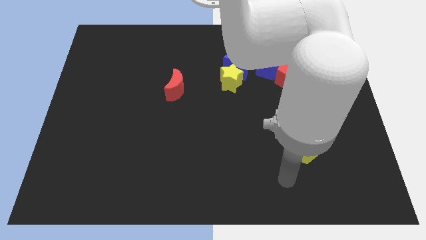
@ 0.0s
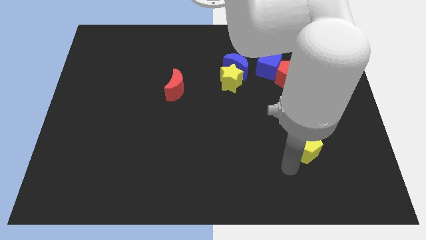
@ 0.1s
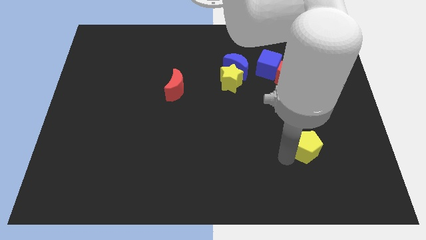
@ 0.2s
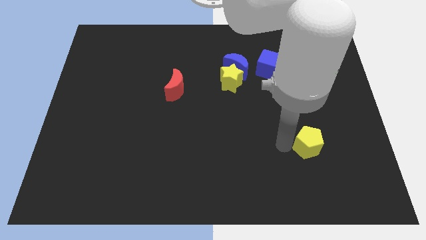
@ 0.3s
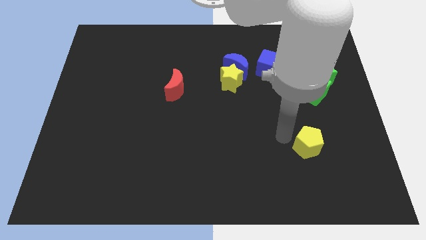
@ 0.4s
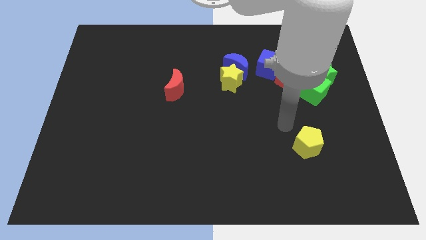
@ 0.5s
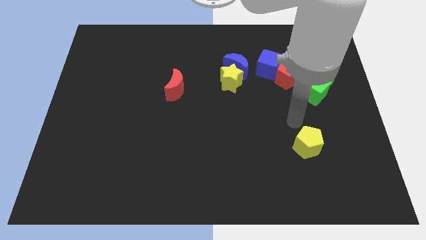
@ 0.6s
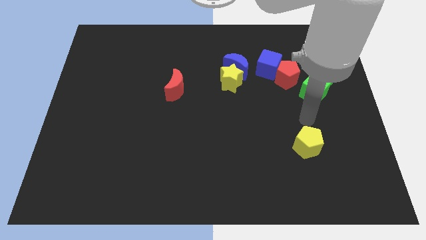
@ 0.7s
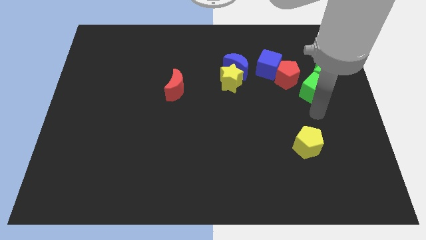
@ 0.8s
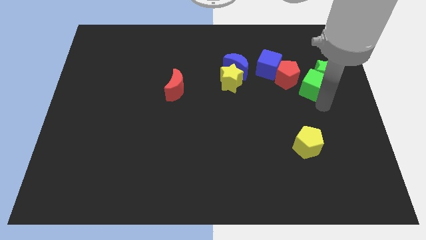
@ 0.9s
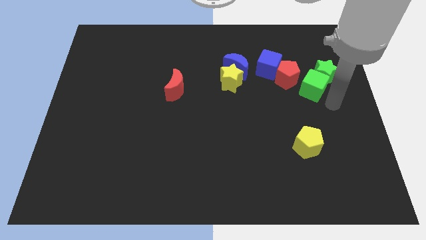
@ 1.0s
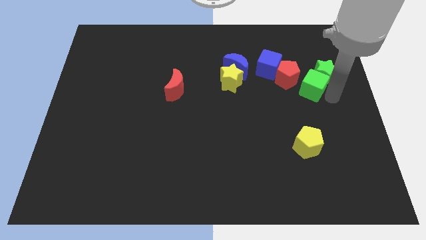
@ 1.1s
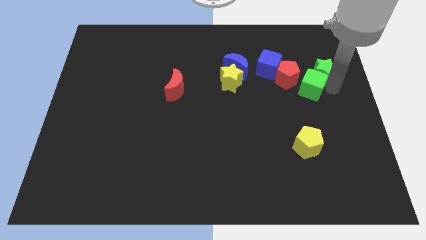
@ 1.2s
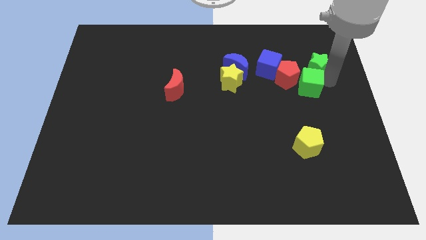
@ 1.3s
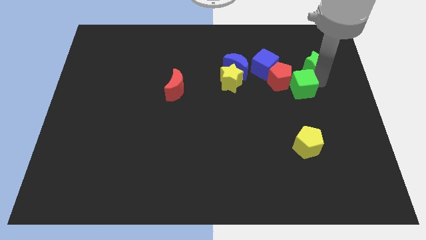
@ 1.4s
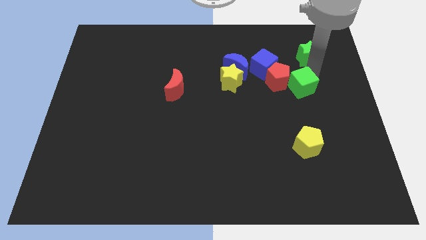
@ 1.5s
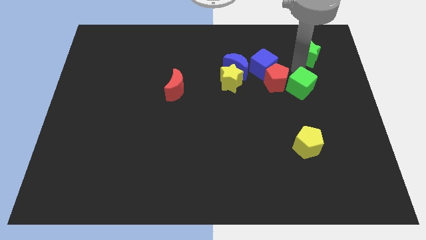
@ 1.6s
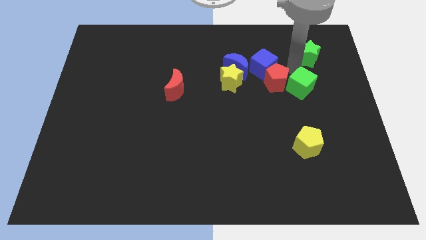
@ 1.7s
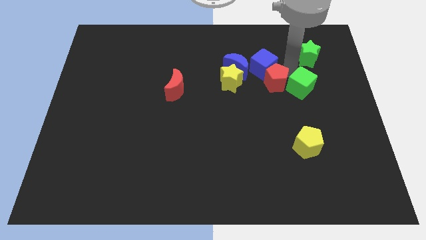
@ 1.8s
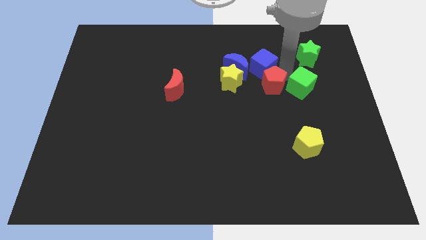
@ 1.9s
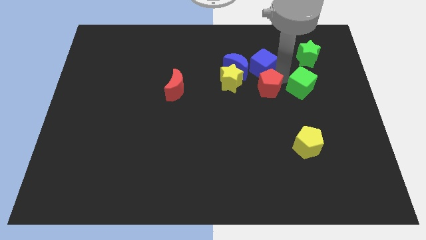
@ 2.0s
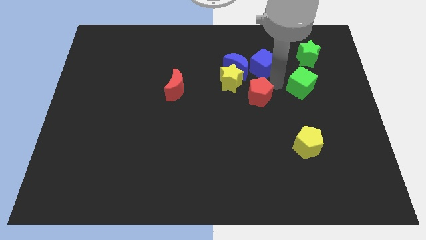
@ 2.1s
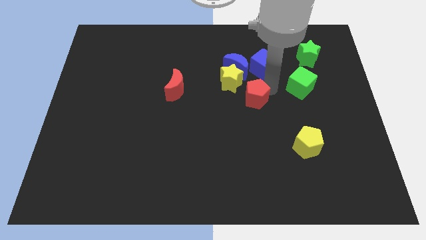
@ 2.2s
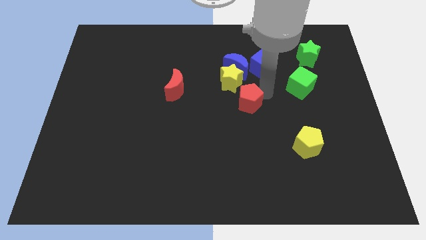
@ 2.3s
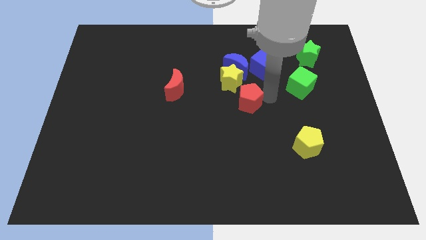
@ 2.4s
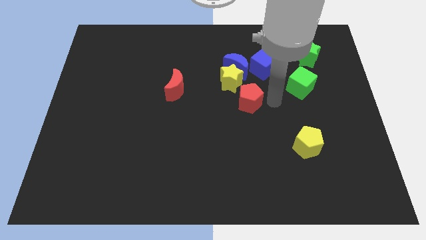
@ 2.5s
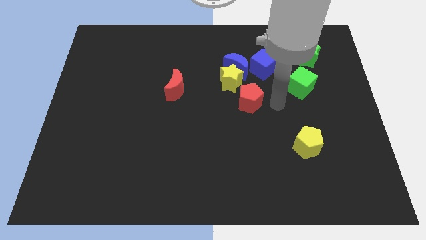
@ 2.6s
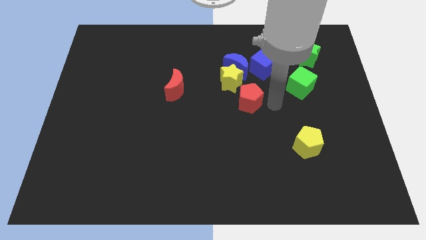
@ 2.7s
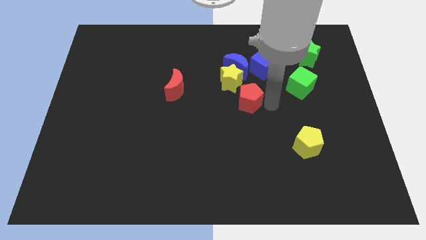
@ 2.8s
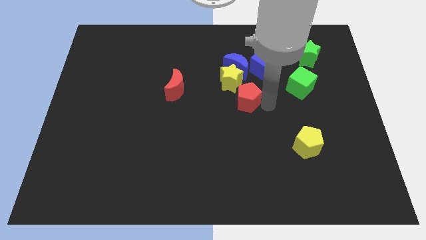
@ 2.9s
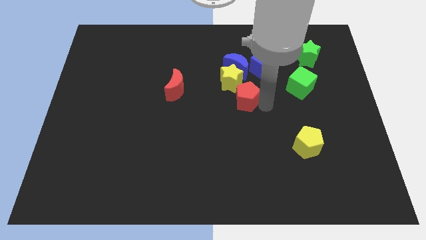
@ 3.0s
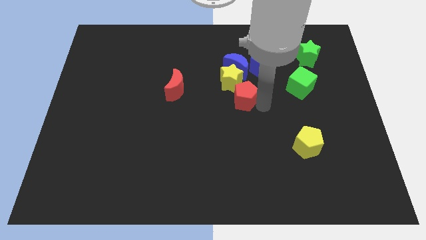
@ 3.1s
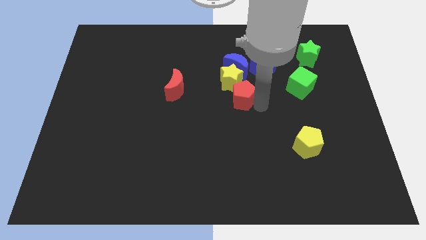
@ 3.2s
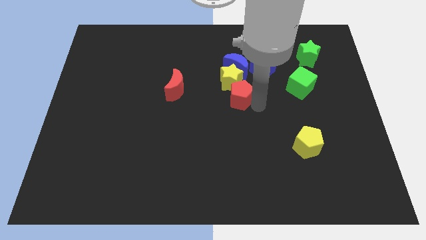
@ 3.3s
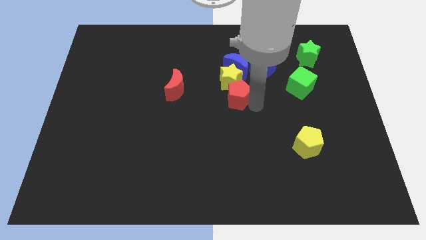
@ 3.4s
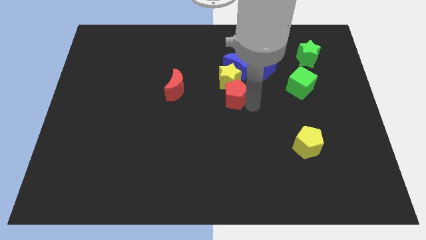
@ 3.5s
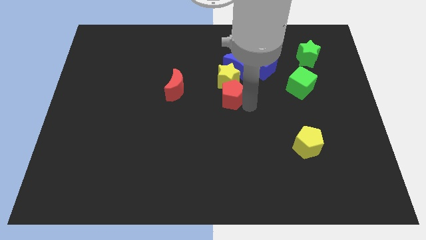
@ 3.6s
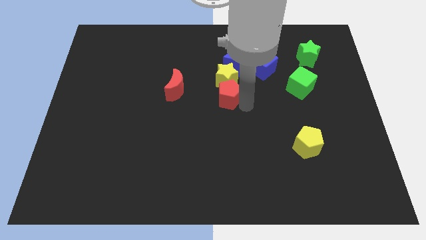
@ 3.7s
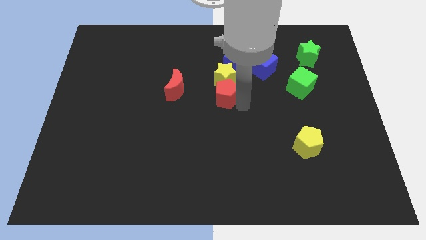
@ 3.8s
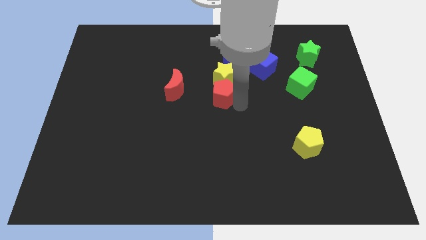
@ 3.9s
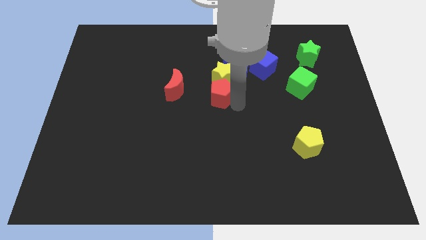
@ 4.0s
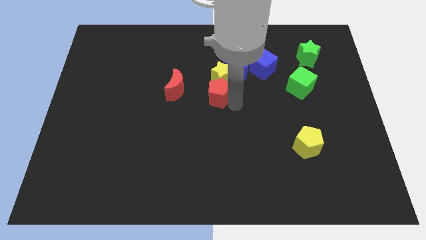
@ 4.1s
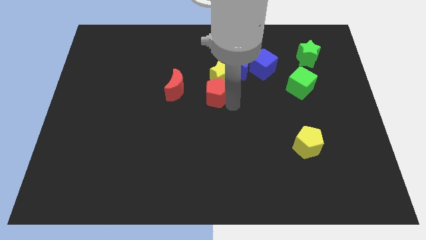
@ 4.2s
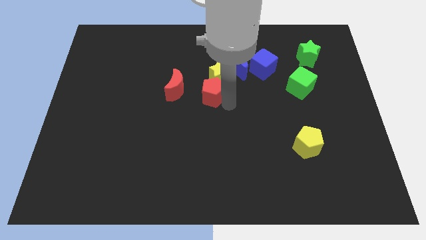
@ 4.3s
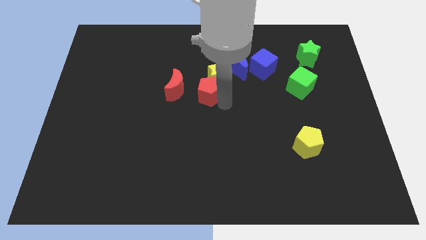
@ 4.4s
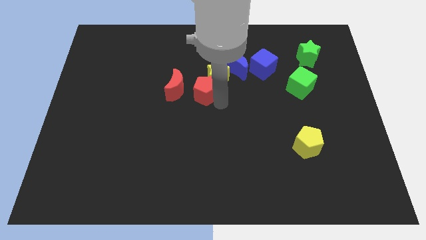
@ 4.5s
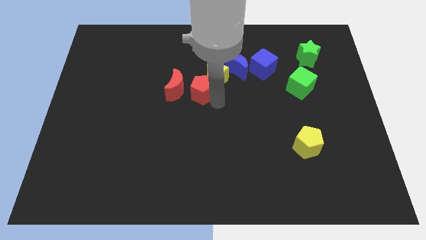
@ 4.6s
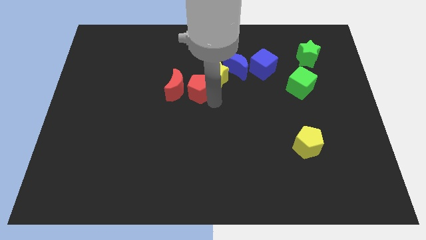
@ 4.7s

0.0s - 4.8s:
slide the red pentagon towards the red moon

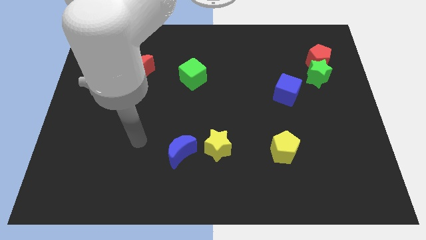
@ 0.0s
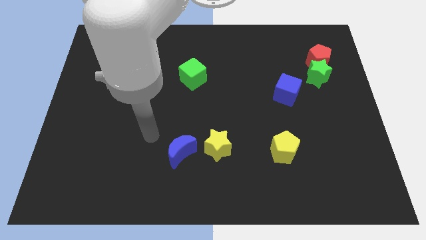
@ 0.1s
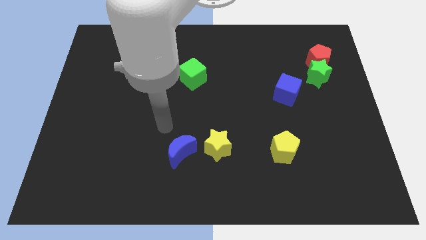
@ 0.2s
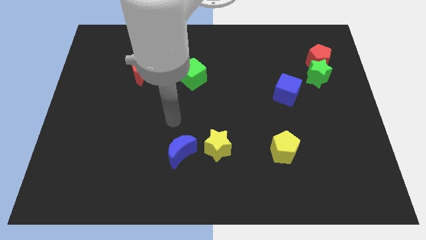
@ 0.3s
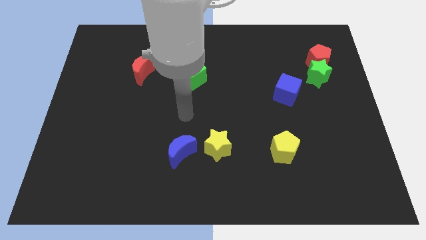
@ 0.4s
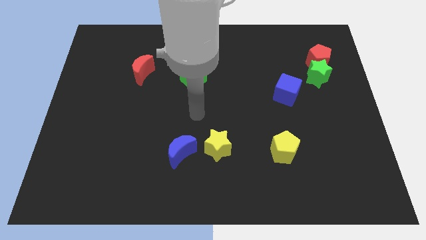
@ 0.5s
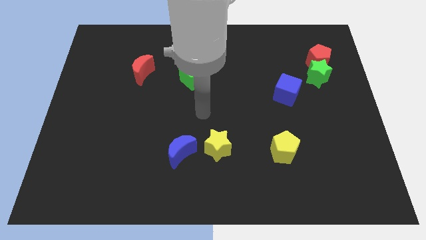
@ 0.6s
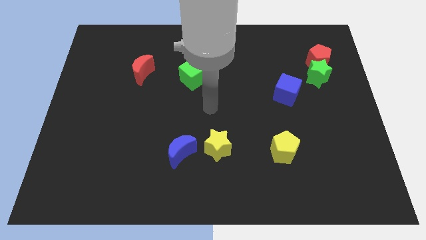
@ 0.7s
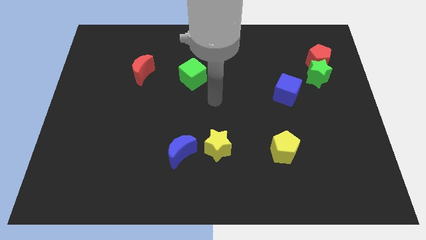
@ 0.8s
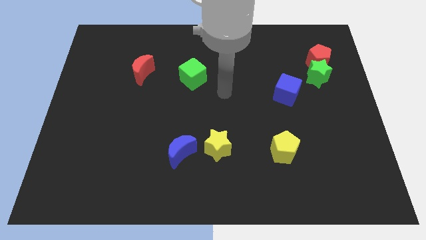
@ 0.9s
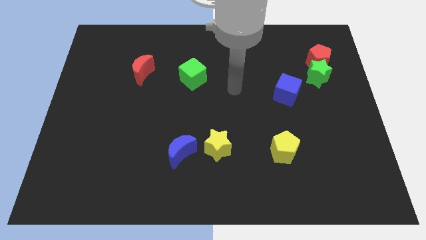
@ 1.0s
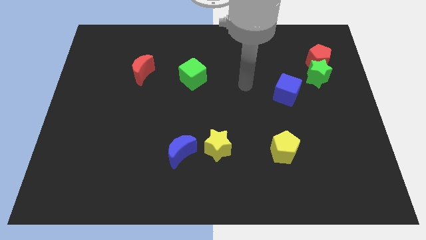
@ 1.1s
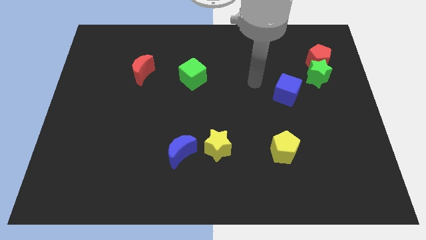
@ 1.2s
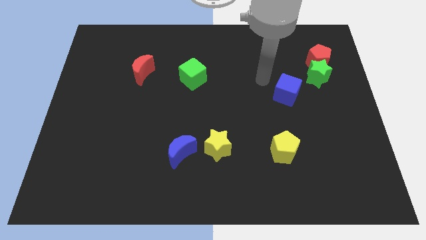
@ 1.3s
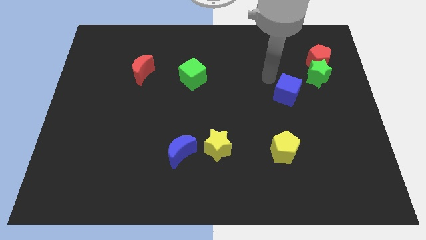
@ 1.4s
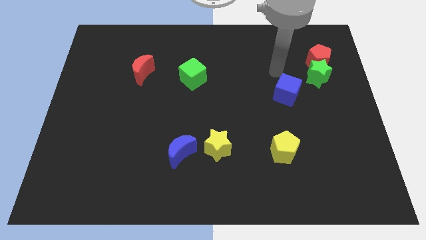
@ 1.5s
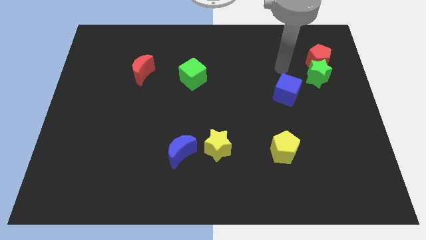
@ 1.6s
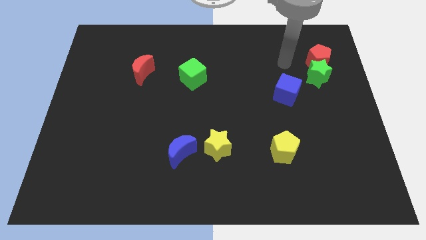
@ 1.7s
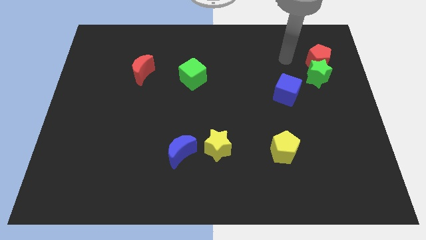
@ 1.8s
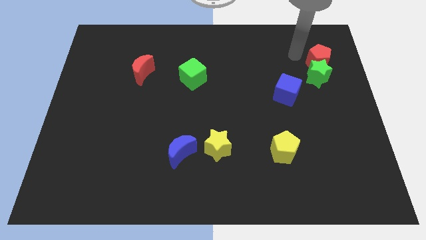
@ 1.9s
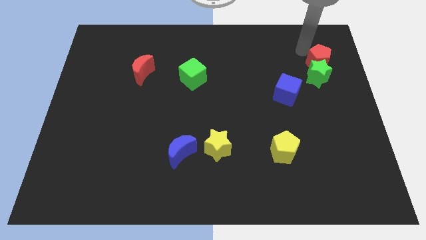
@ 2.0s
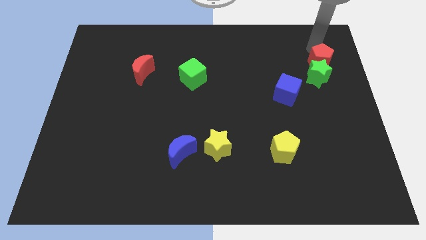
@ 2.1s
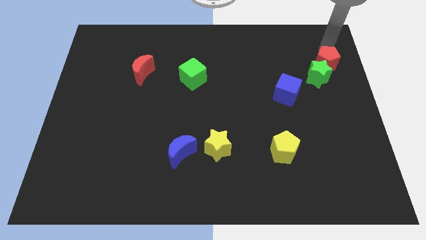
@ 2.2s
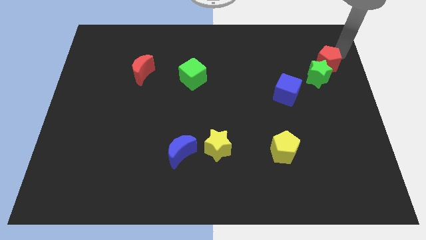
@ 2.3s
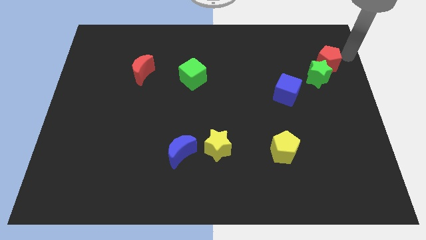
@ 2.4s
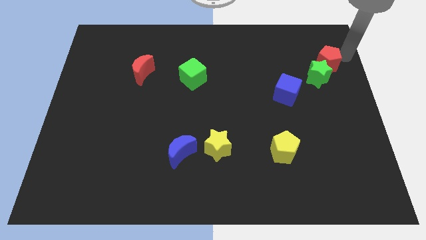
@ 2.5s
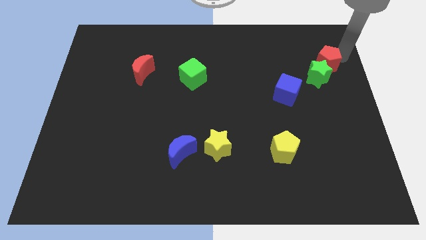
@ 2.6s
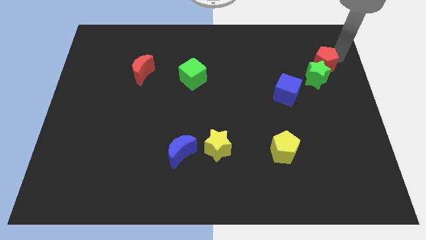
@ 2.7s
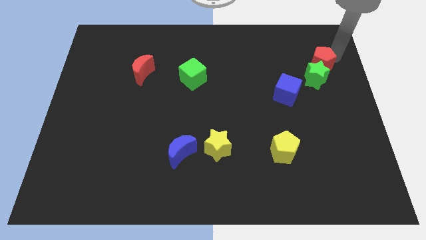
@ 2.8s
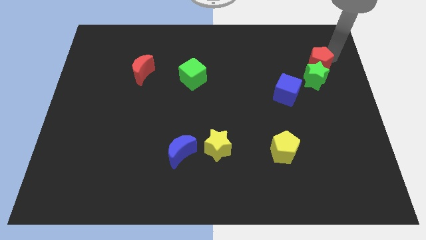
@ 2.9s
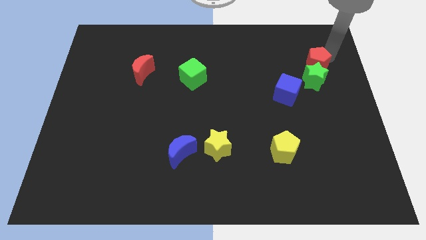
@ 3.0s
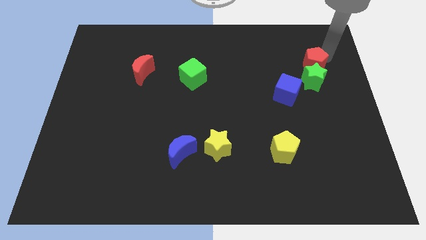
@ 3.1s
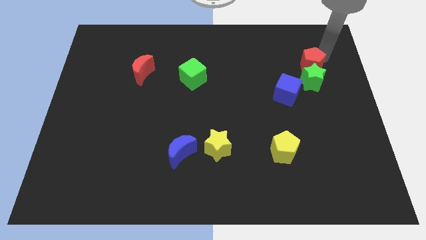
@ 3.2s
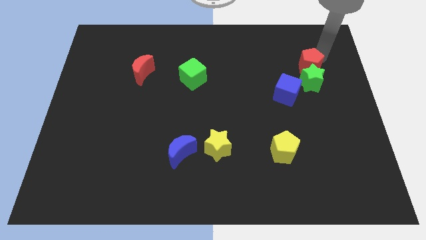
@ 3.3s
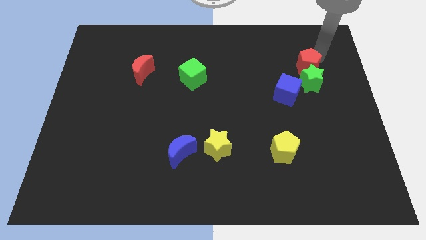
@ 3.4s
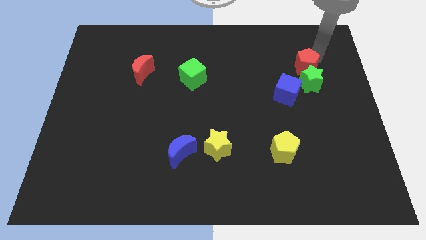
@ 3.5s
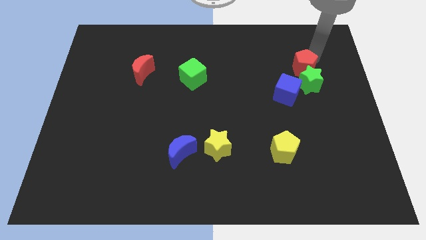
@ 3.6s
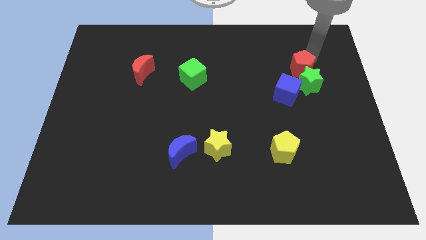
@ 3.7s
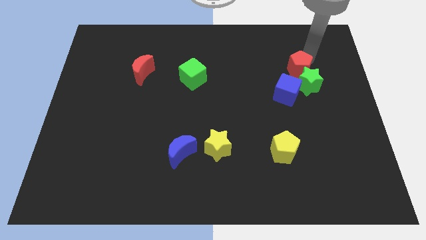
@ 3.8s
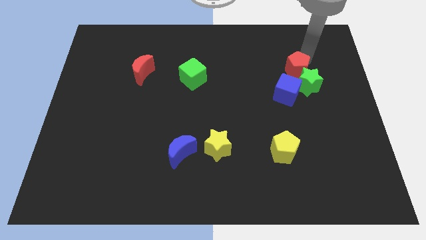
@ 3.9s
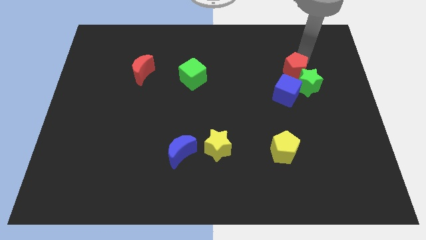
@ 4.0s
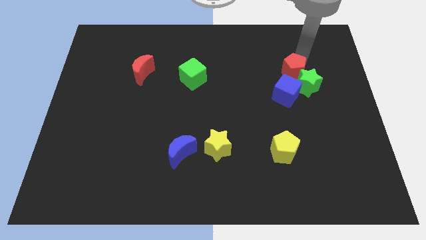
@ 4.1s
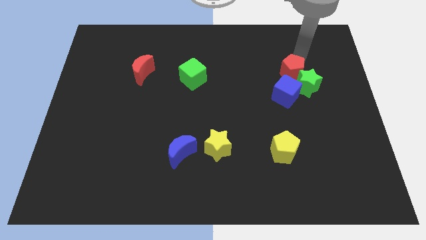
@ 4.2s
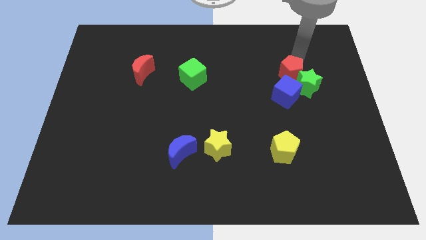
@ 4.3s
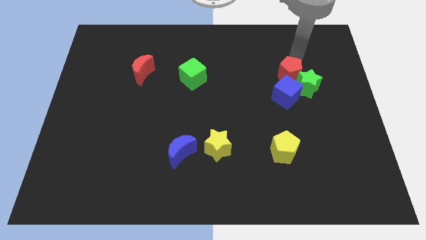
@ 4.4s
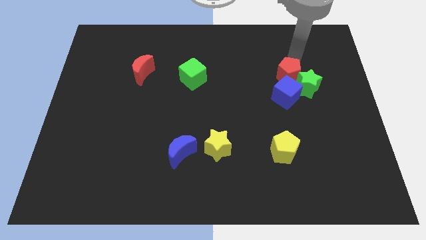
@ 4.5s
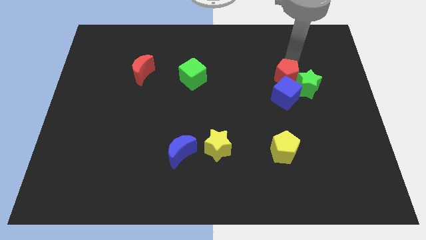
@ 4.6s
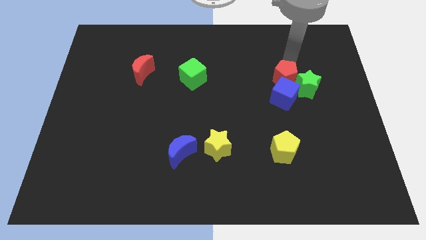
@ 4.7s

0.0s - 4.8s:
put the red pentagon to the blue cube
